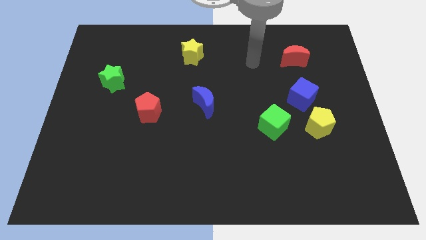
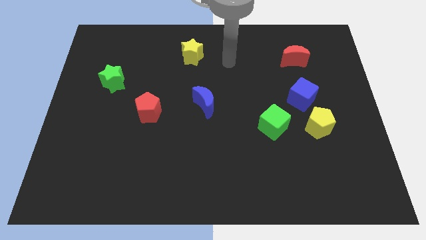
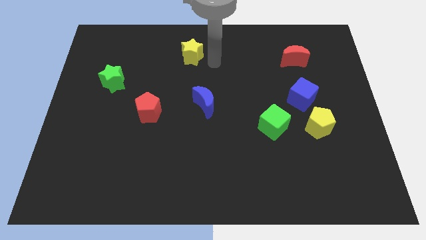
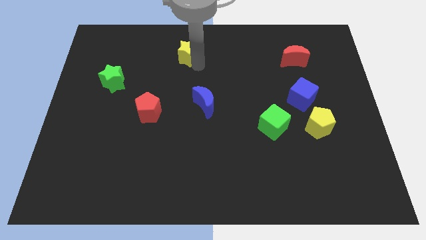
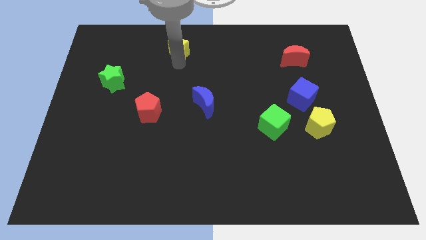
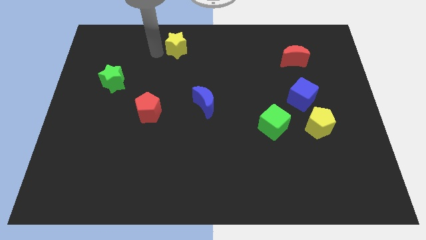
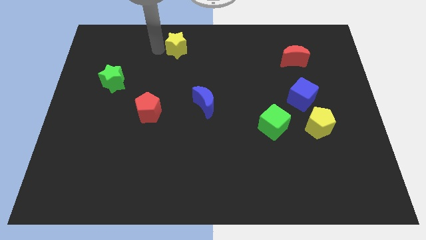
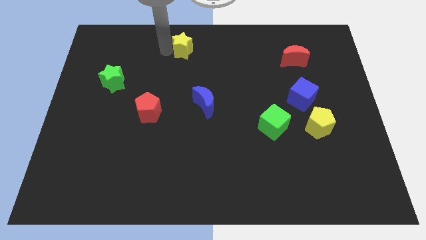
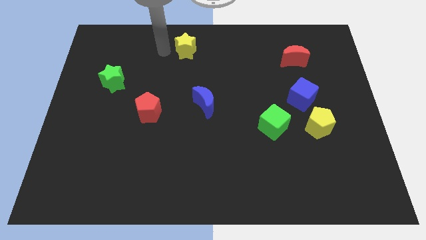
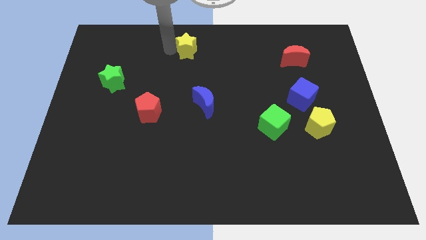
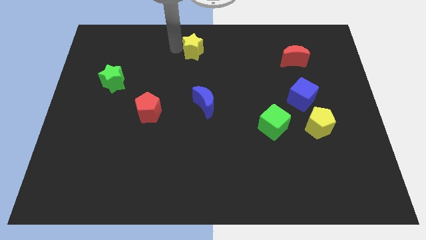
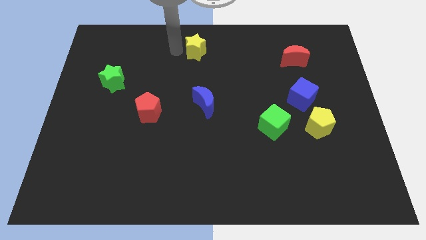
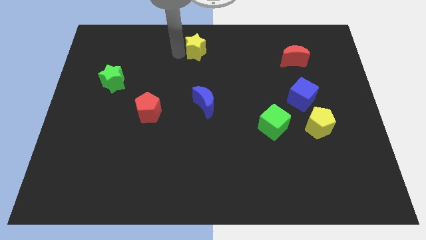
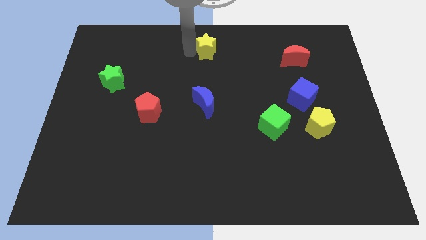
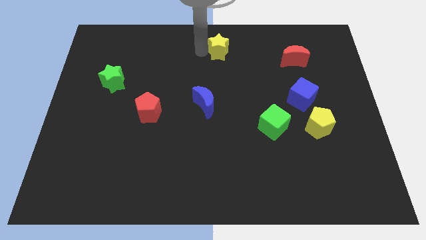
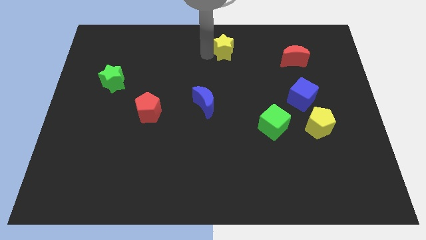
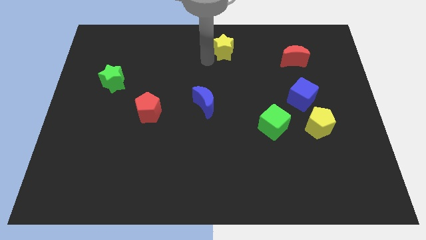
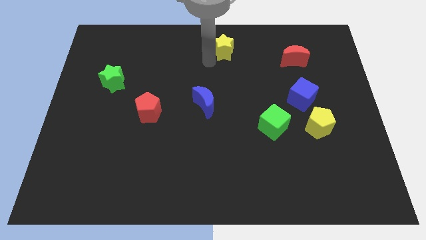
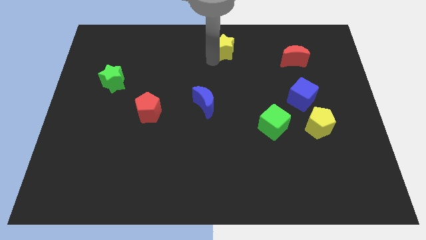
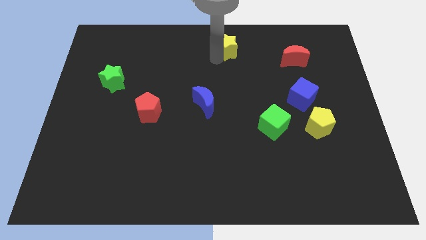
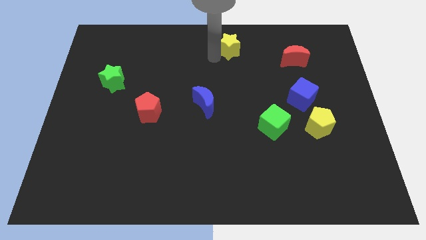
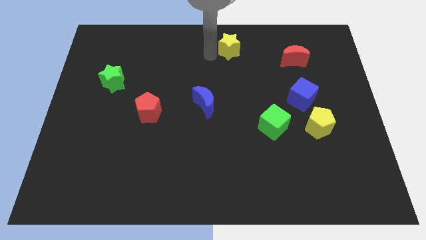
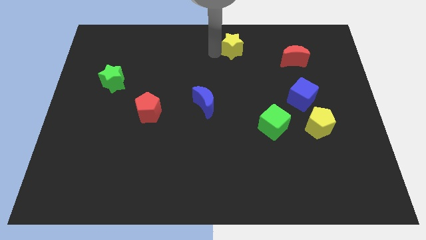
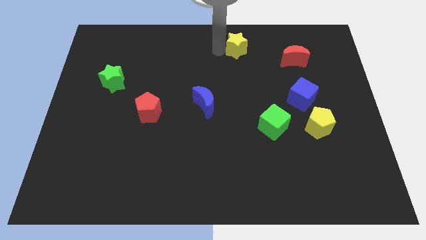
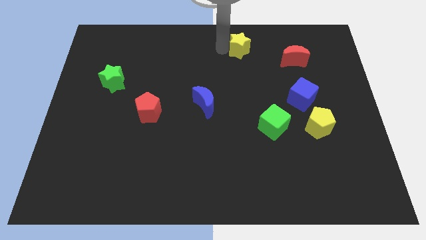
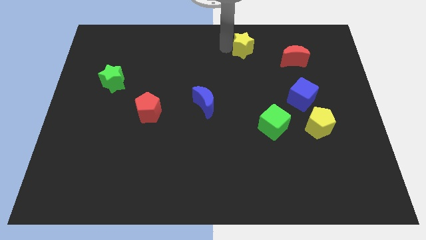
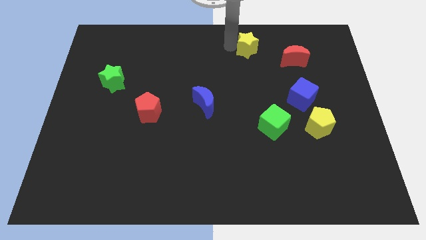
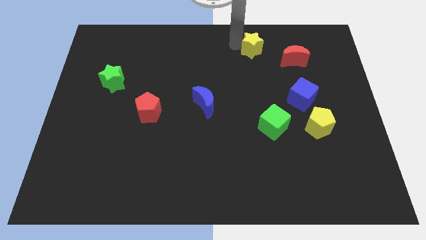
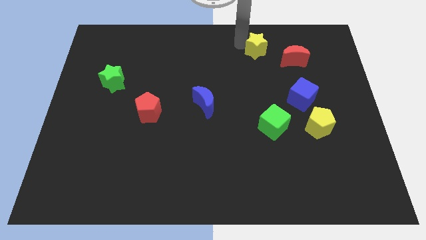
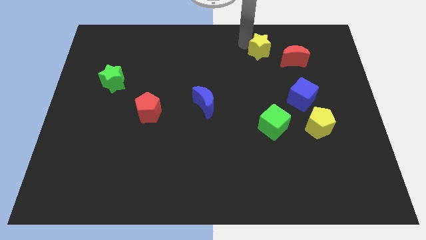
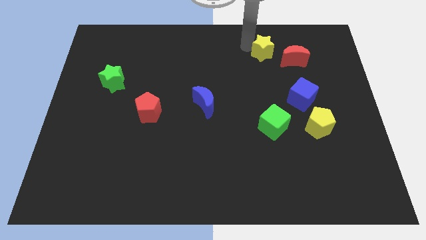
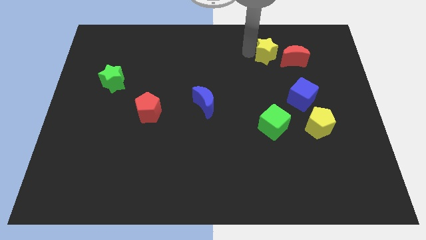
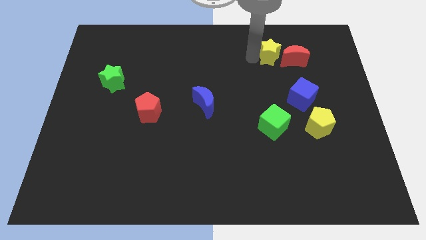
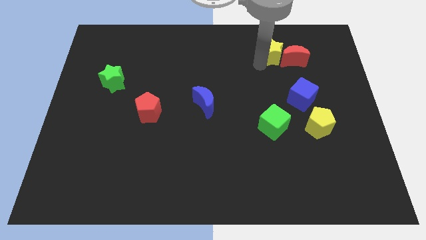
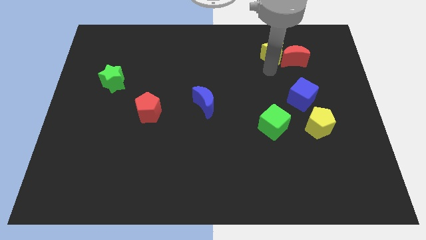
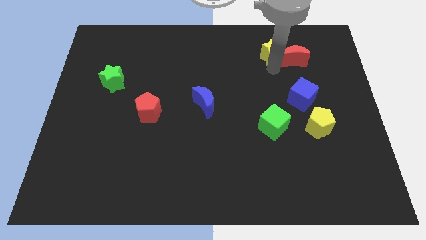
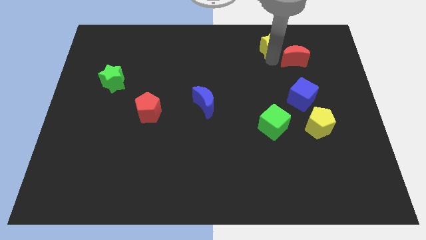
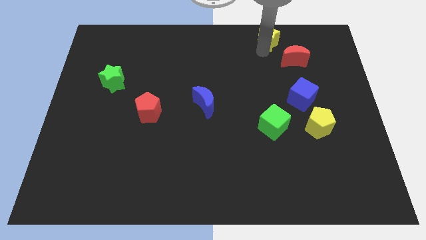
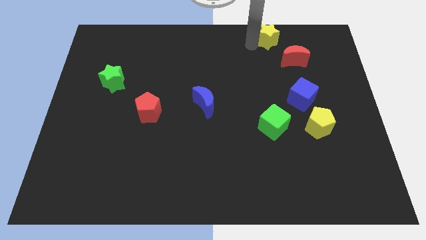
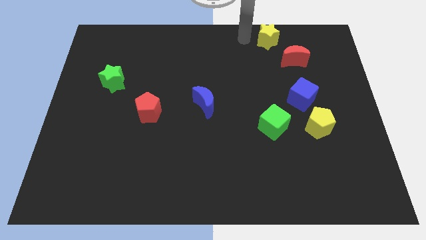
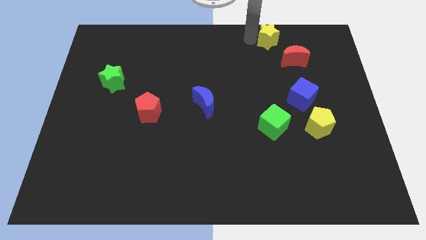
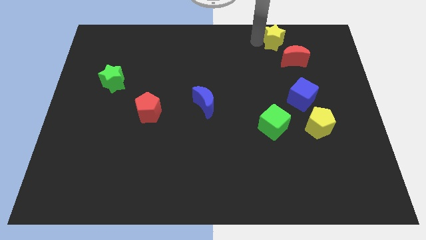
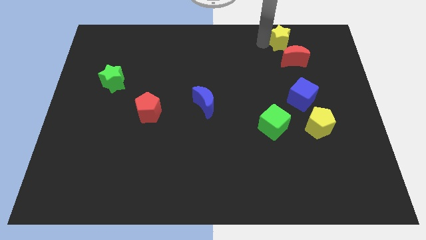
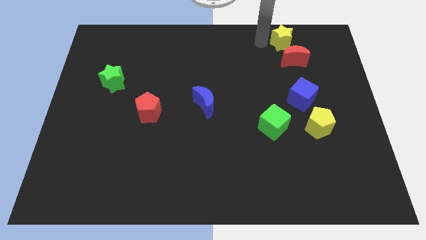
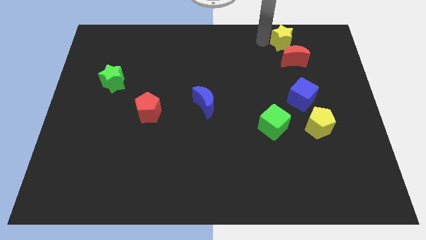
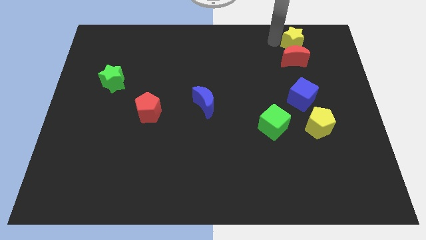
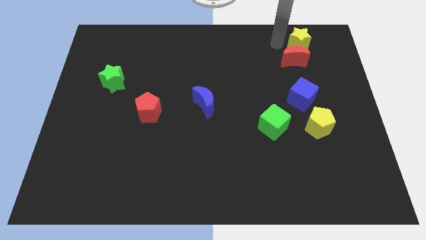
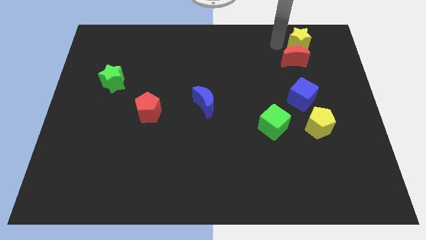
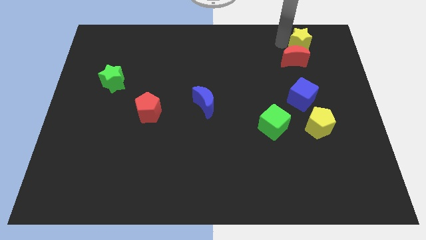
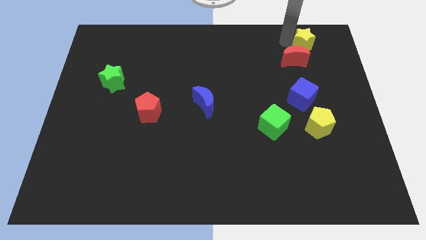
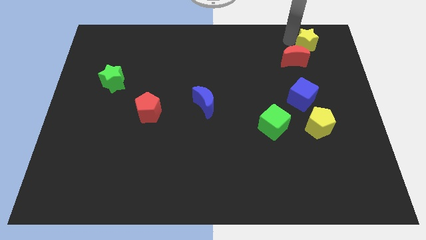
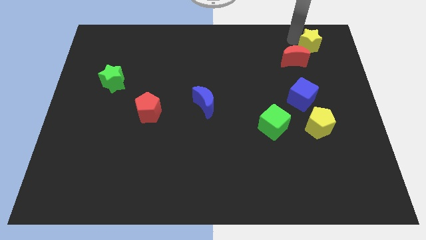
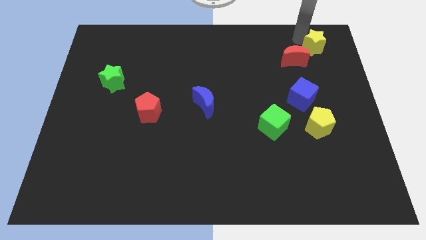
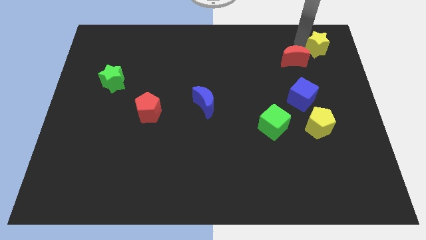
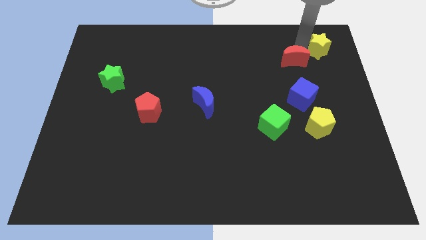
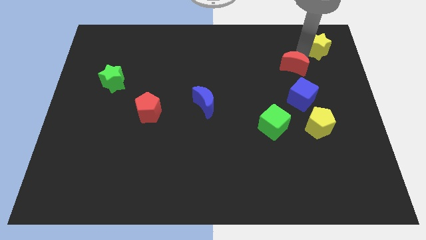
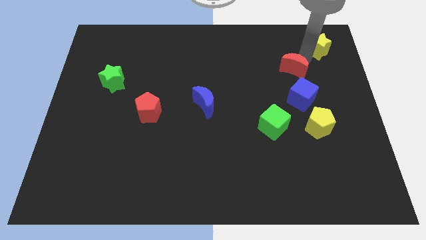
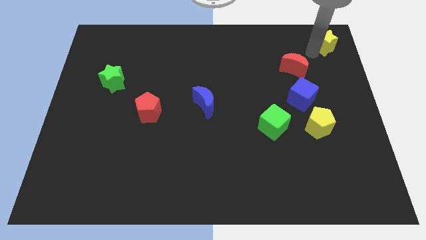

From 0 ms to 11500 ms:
put the yellow star to the top right
